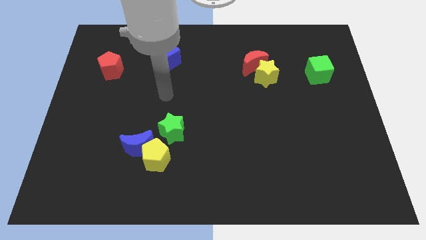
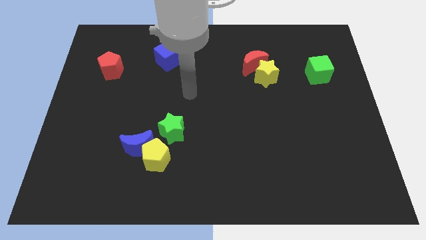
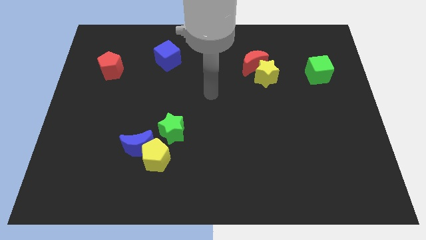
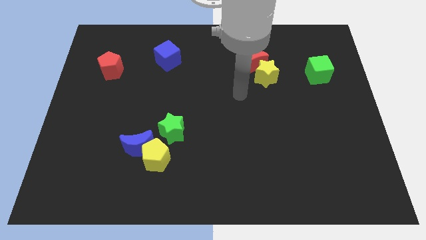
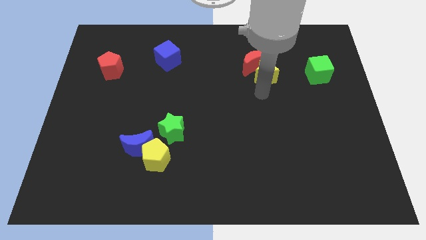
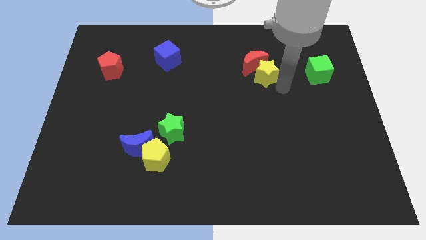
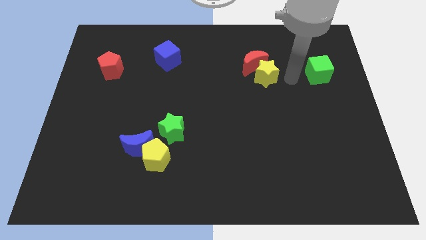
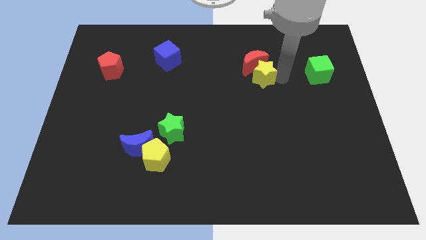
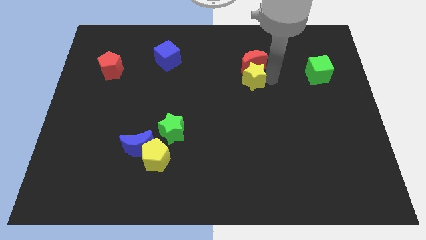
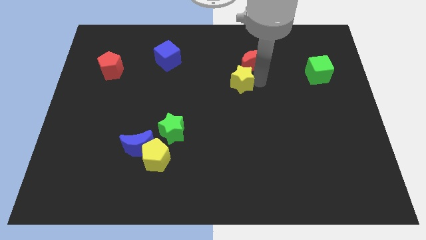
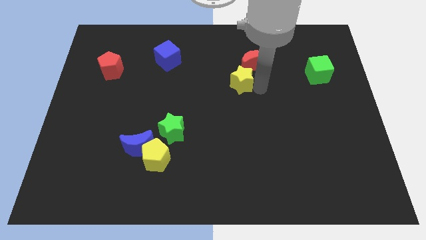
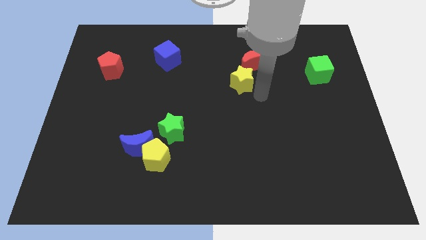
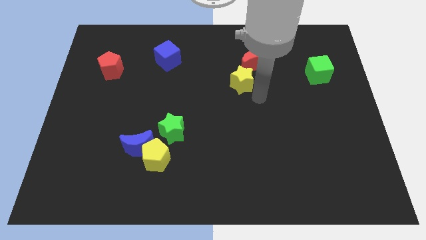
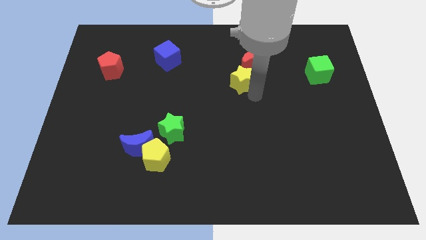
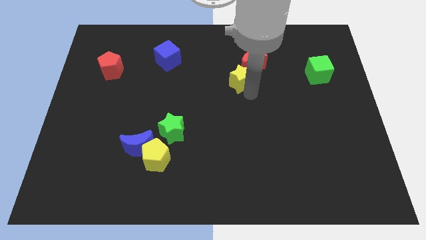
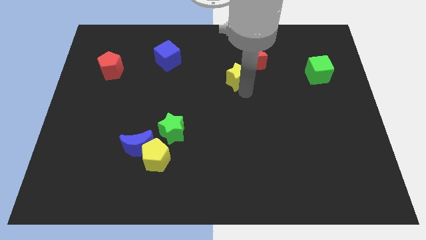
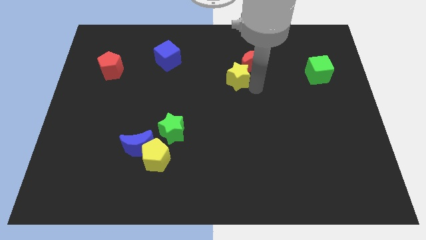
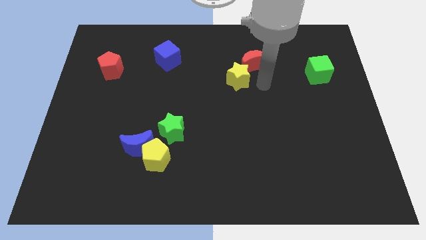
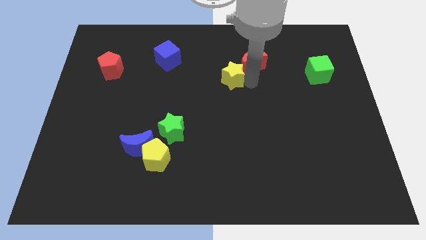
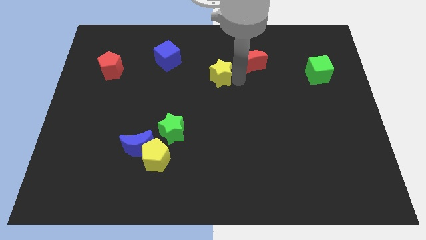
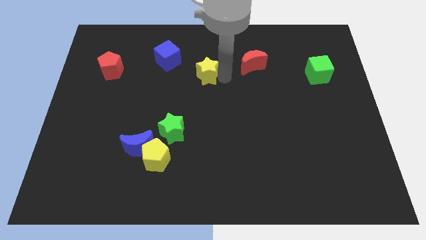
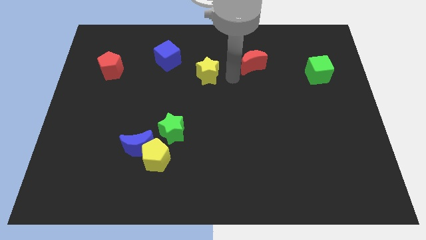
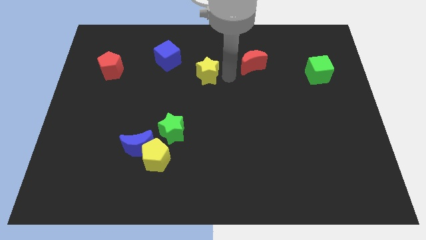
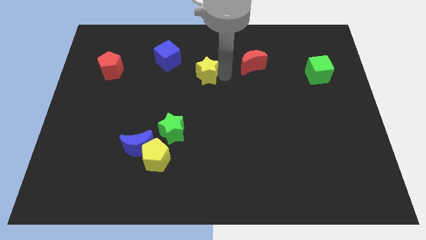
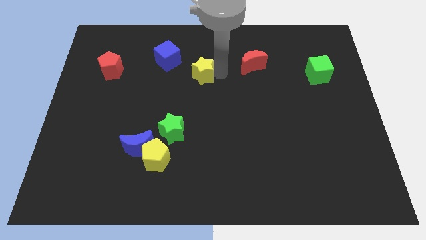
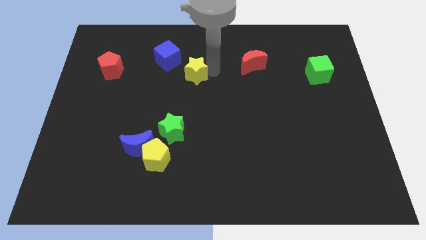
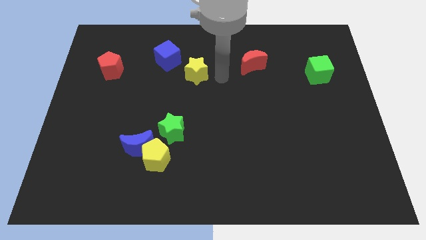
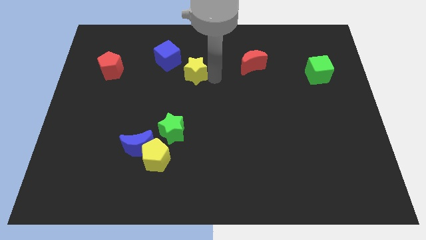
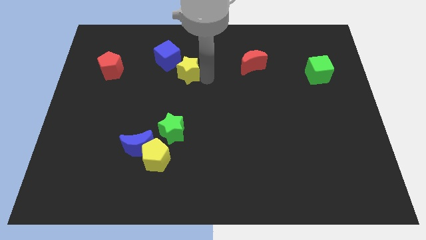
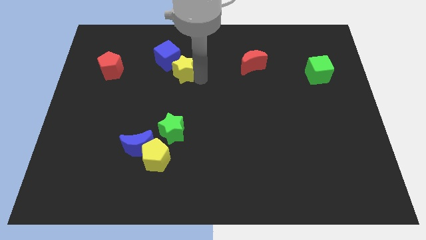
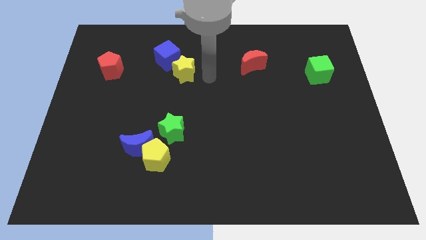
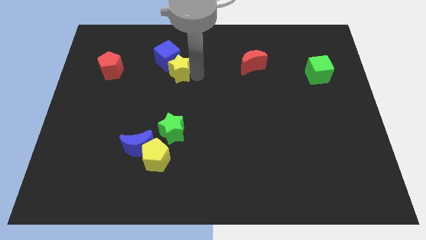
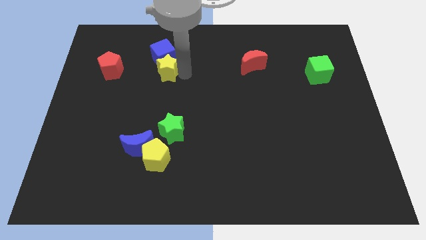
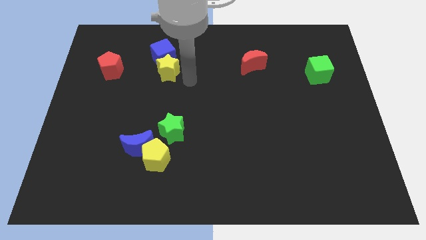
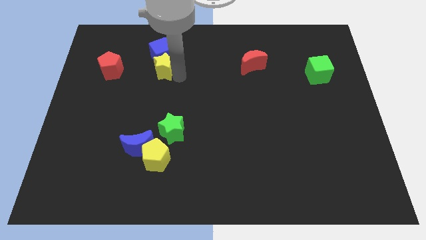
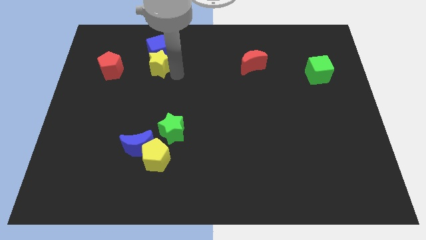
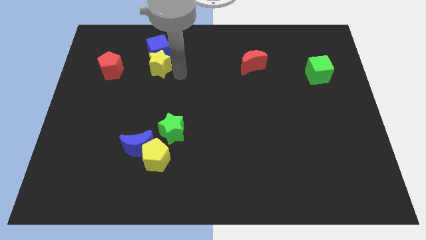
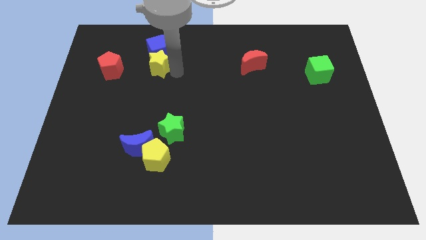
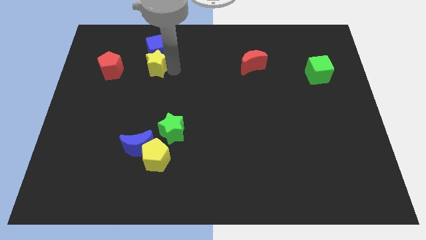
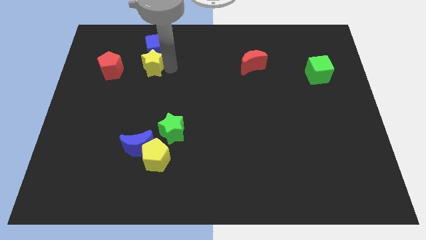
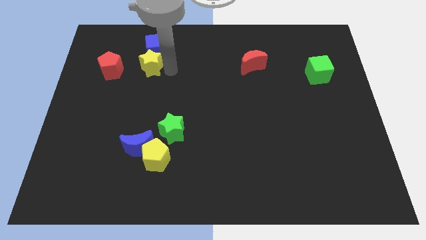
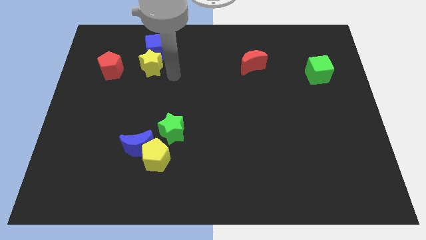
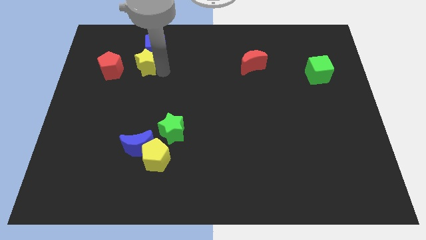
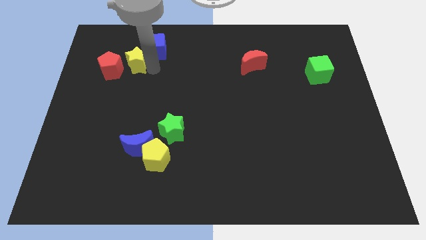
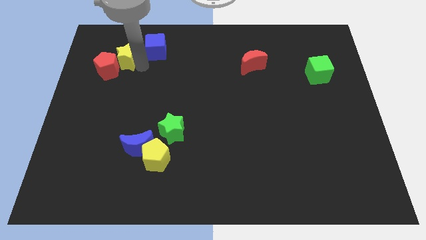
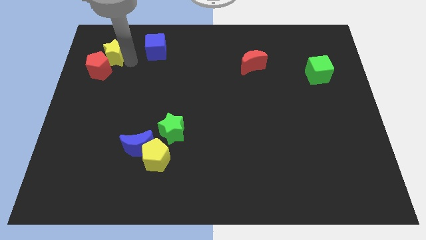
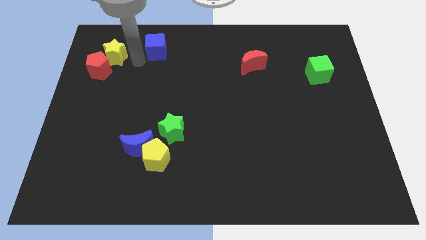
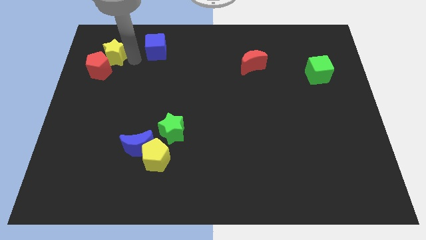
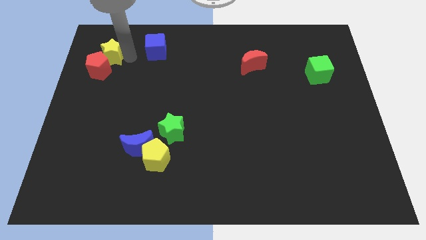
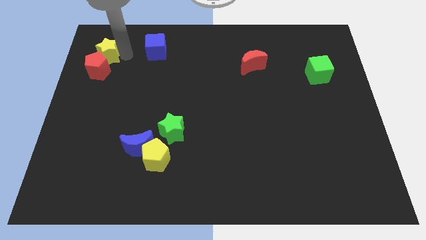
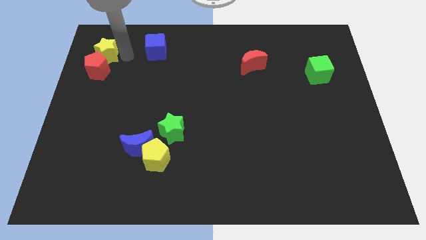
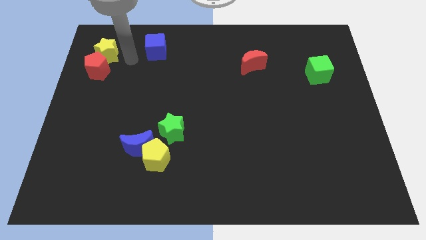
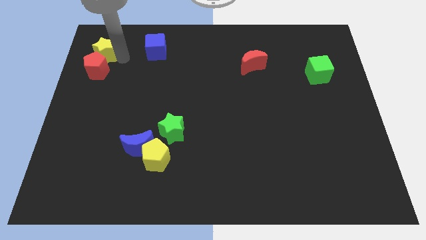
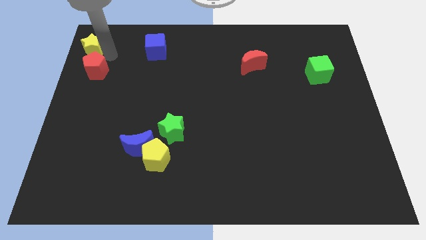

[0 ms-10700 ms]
put the yellow star to the upper left corner

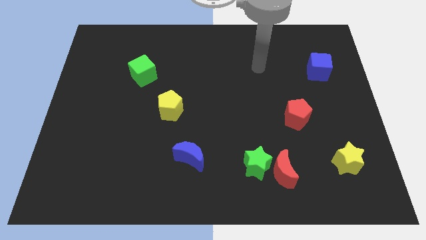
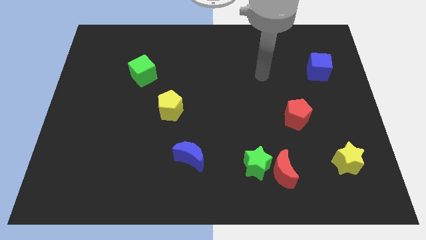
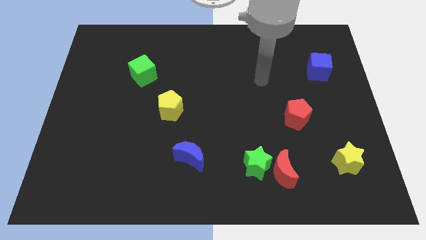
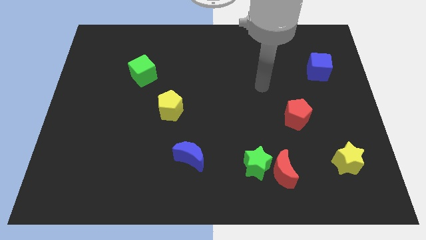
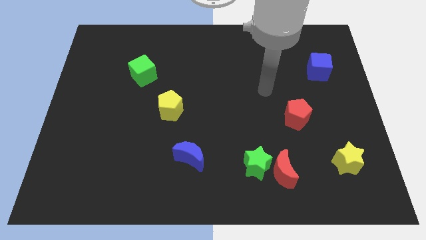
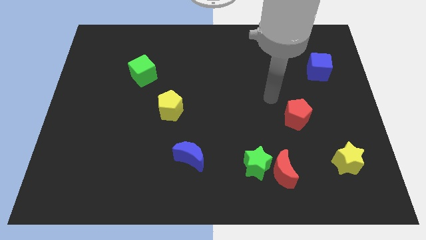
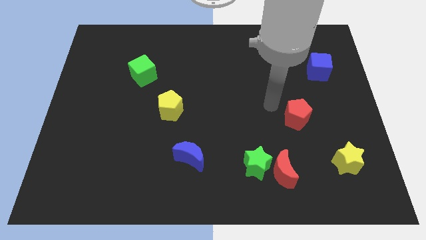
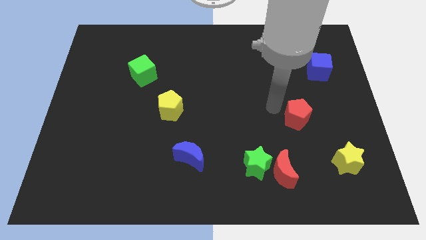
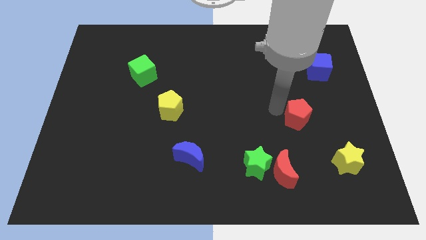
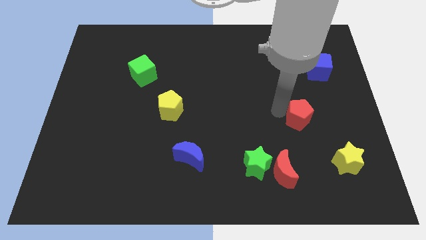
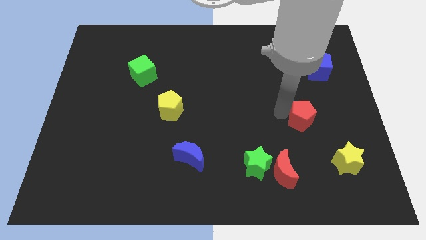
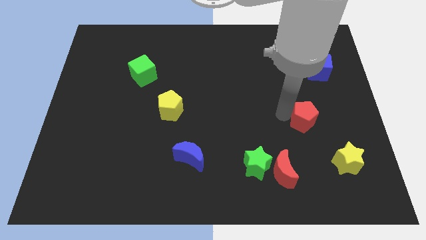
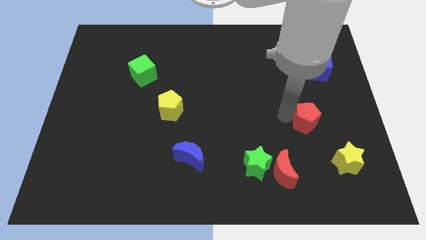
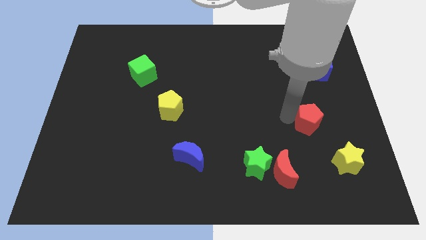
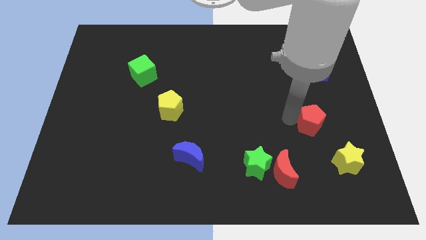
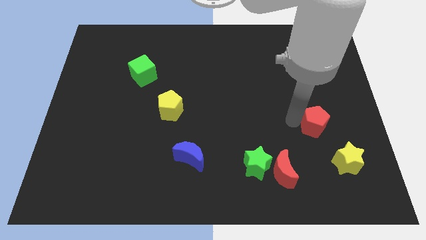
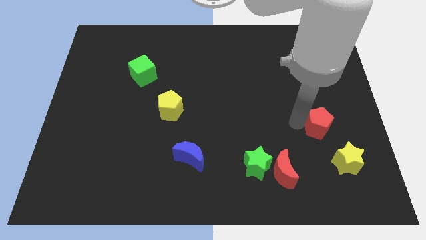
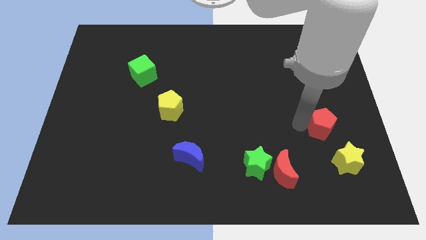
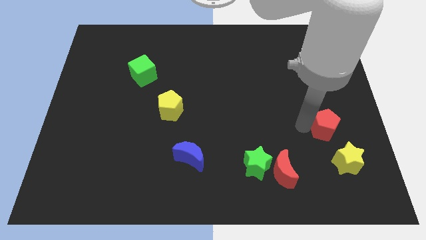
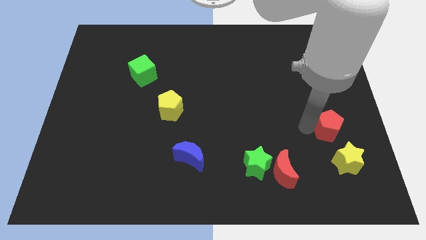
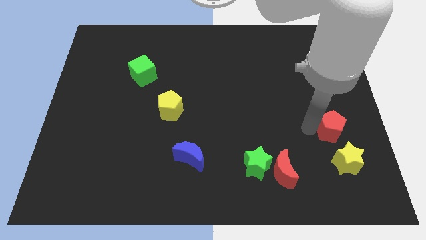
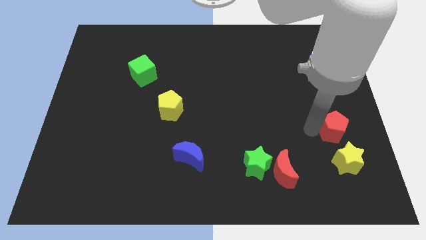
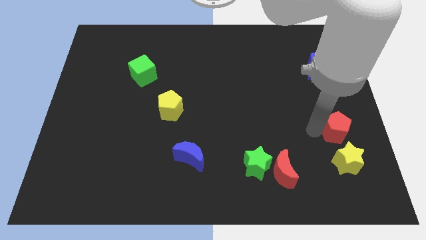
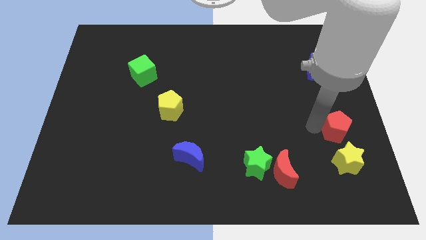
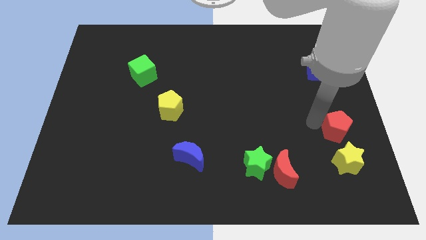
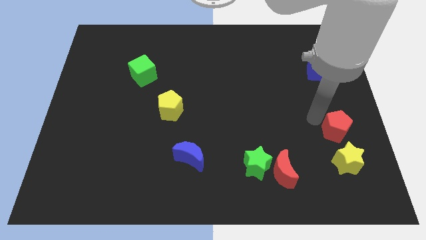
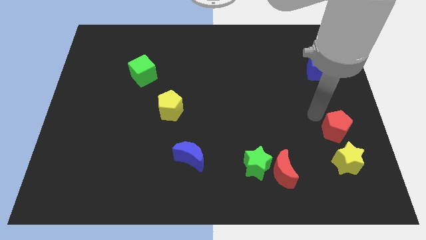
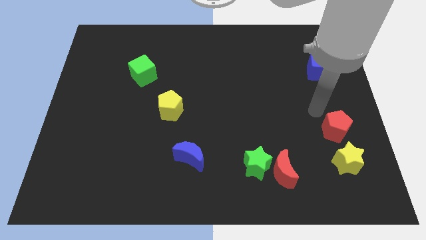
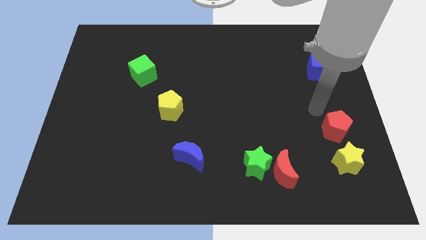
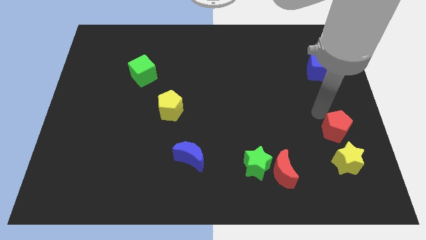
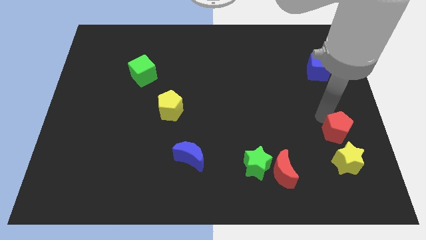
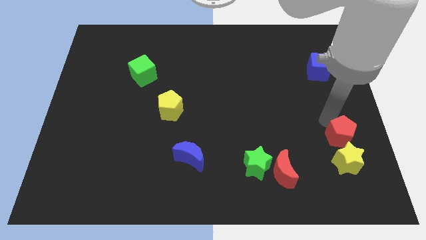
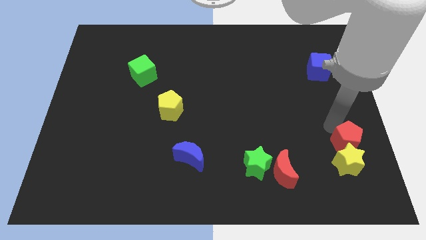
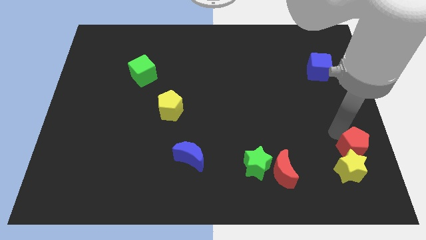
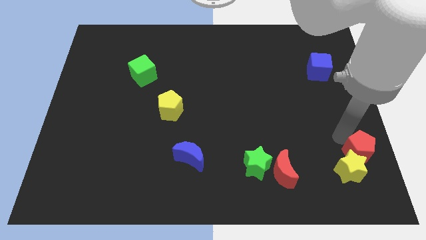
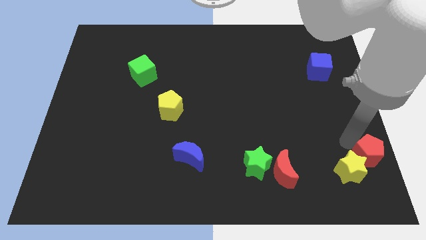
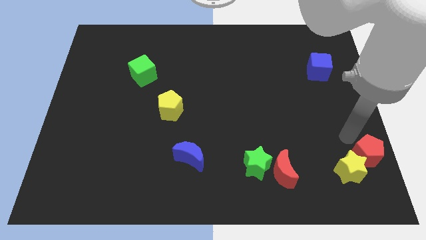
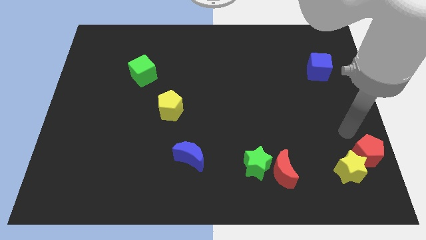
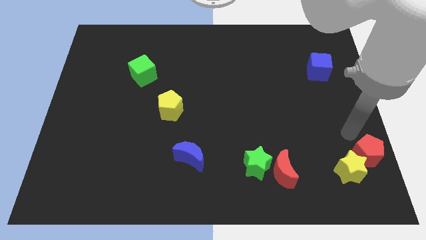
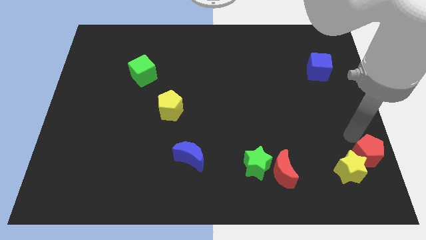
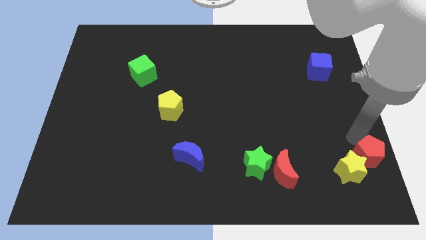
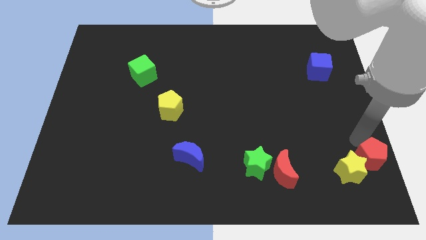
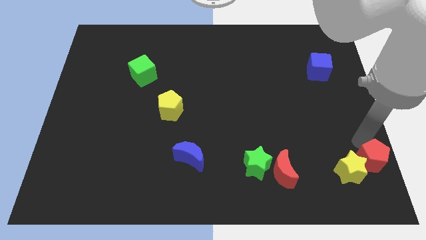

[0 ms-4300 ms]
move the red pentagon to the bottom right
